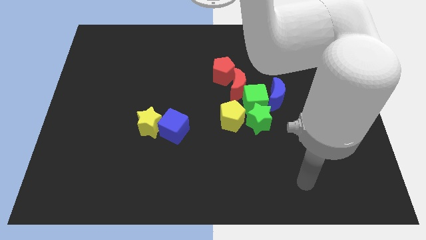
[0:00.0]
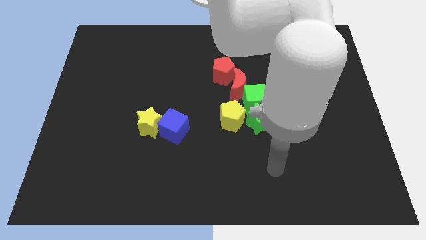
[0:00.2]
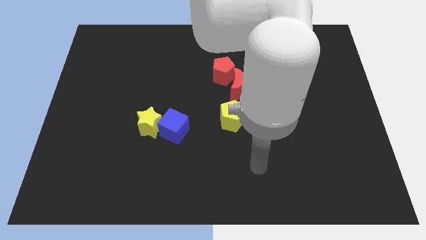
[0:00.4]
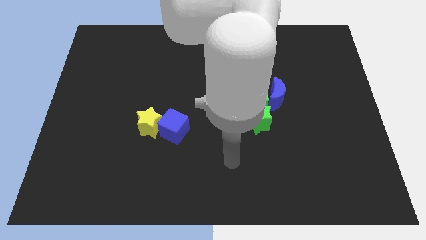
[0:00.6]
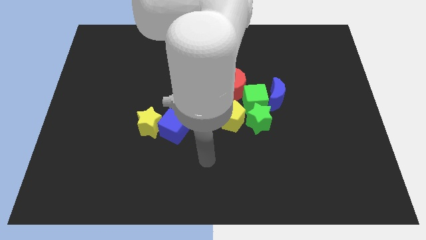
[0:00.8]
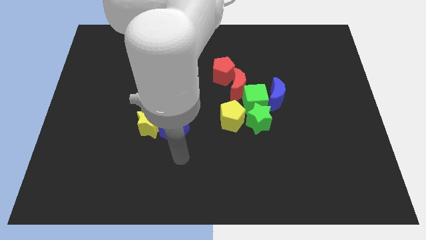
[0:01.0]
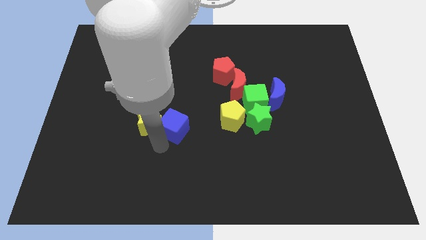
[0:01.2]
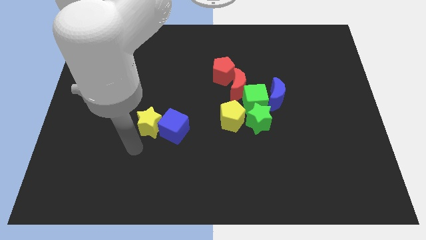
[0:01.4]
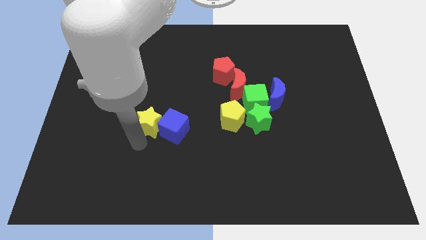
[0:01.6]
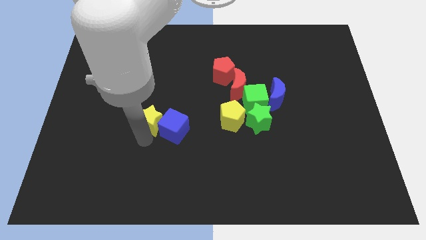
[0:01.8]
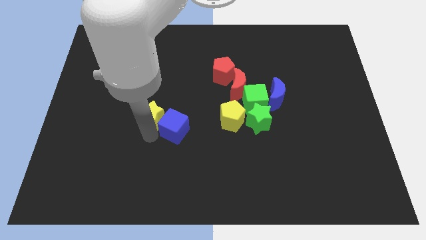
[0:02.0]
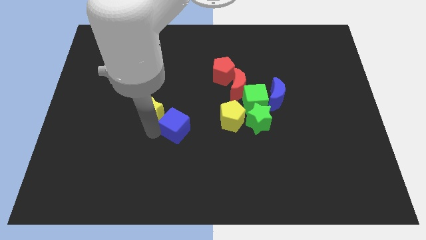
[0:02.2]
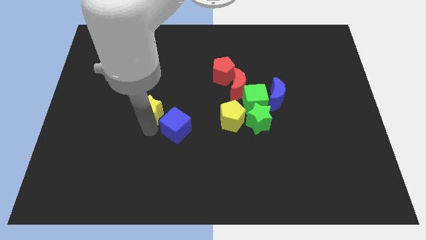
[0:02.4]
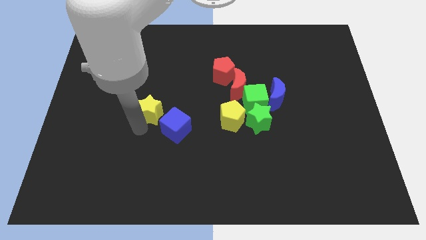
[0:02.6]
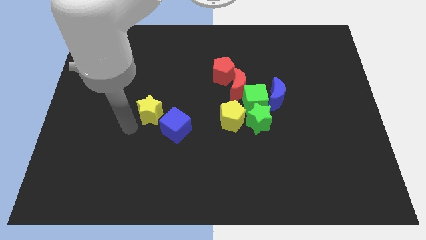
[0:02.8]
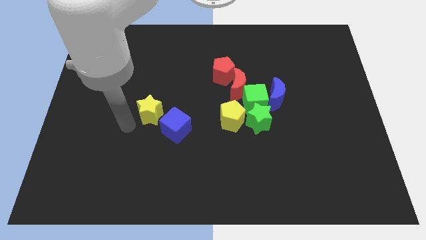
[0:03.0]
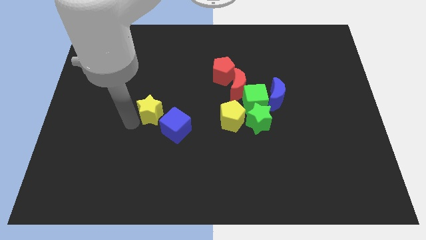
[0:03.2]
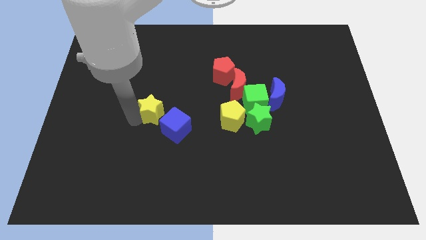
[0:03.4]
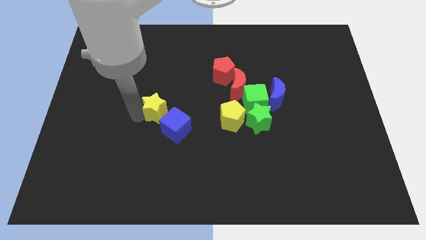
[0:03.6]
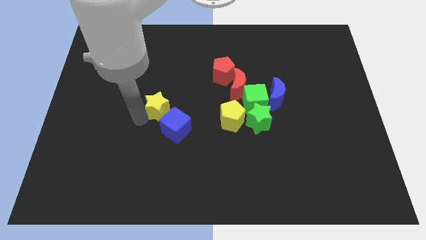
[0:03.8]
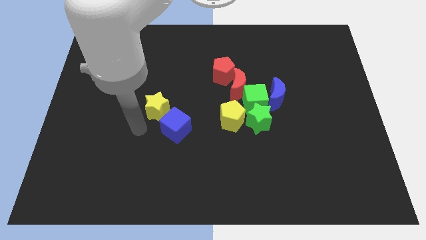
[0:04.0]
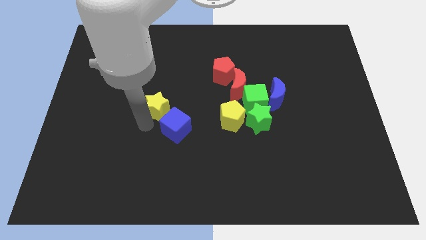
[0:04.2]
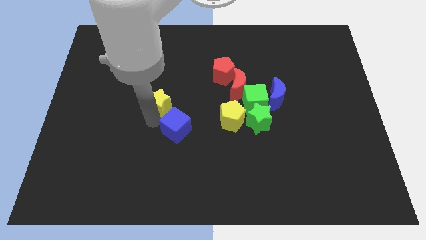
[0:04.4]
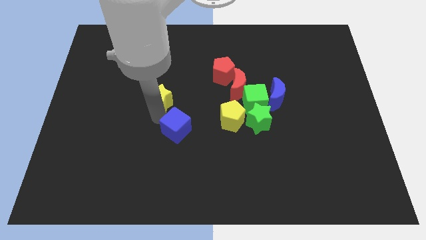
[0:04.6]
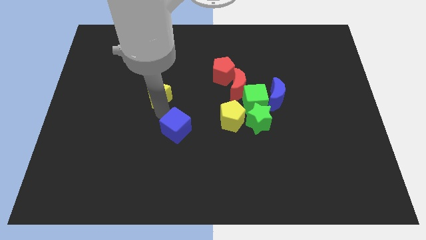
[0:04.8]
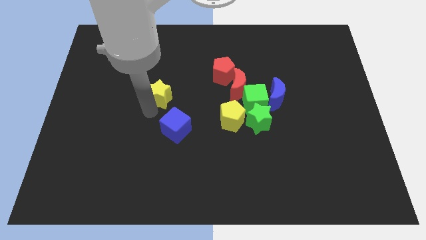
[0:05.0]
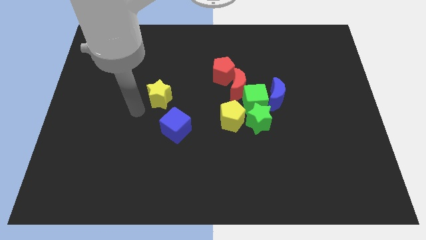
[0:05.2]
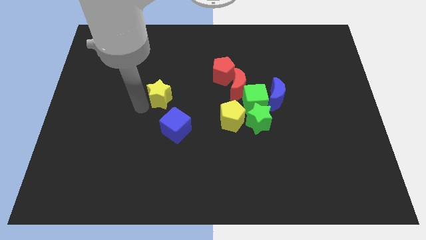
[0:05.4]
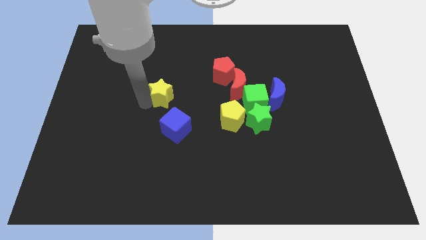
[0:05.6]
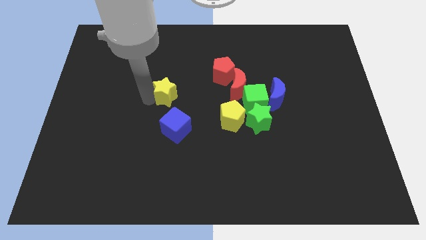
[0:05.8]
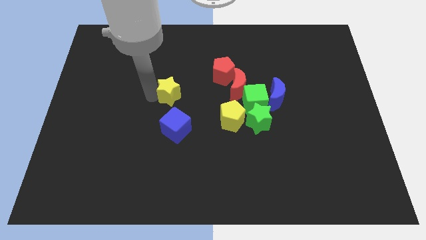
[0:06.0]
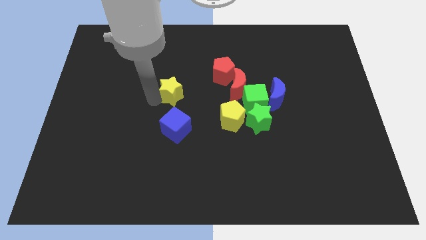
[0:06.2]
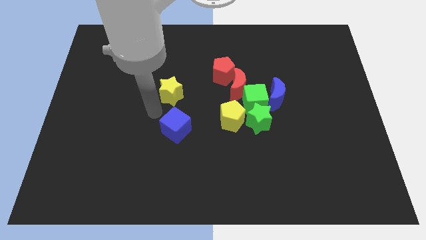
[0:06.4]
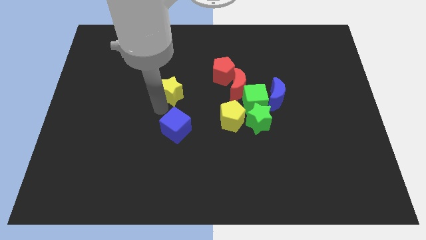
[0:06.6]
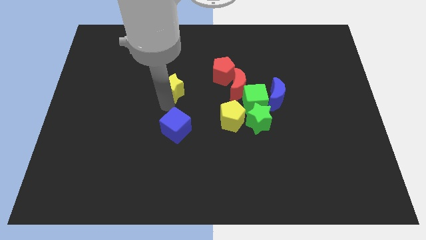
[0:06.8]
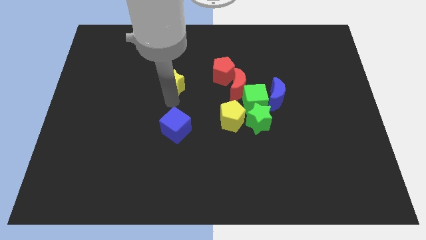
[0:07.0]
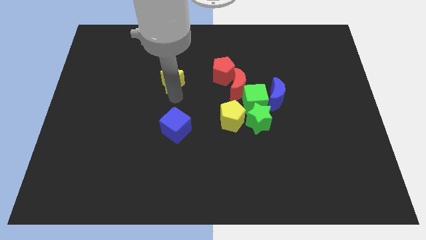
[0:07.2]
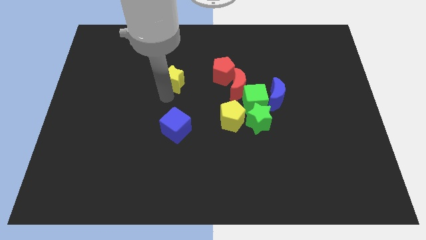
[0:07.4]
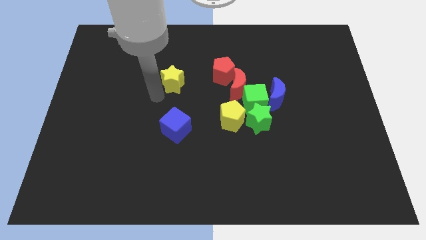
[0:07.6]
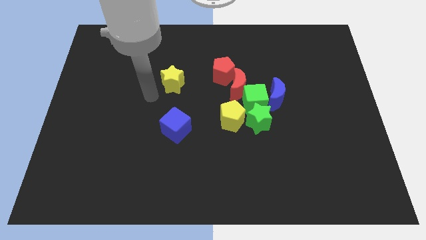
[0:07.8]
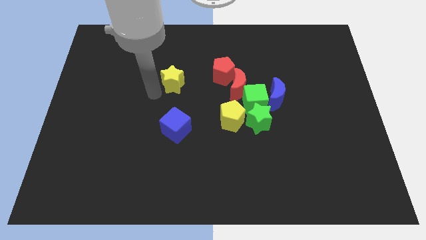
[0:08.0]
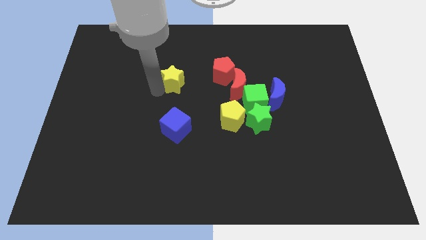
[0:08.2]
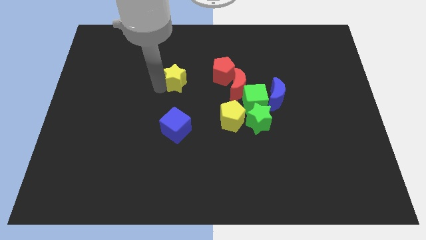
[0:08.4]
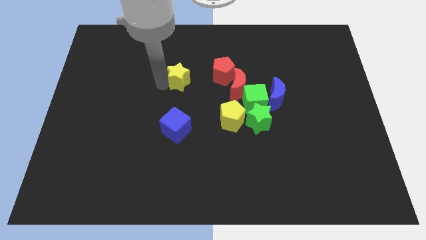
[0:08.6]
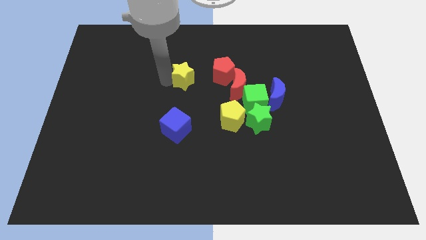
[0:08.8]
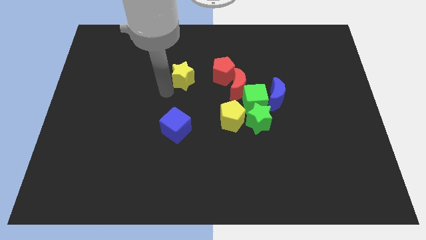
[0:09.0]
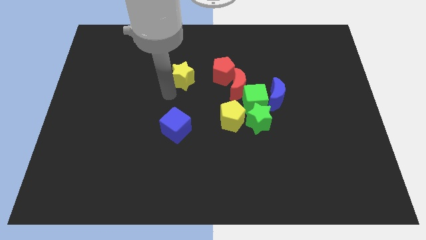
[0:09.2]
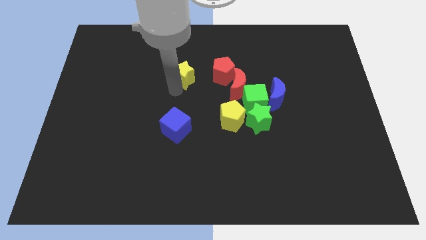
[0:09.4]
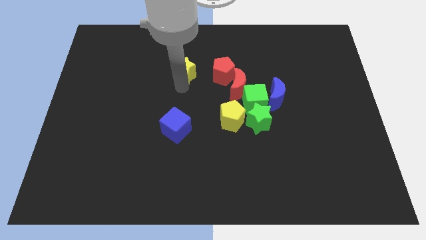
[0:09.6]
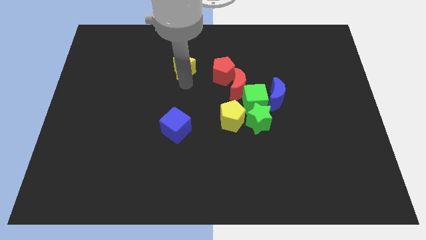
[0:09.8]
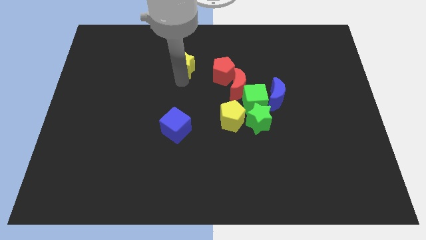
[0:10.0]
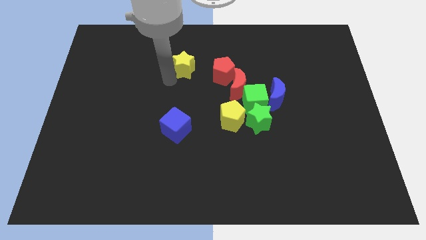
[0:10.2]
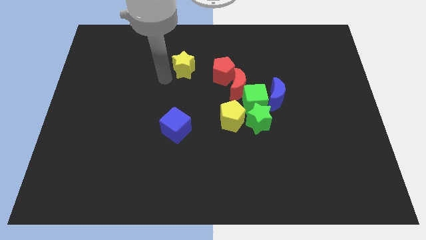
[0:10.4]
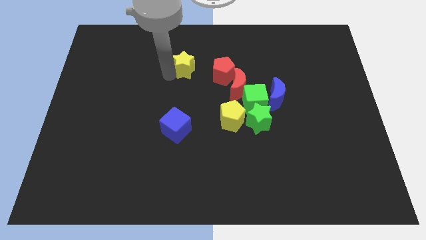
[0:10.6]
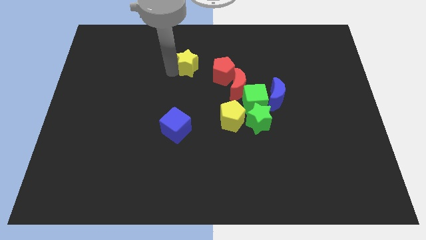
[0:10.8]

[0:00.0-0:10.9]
push the yellow star diagonally up and to the left of the red pentagon

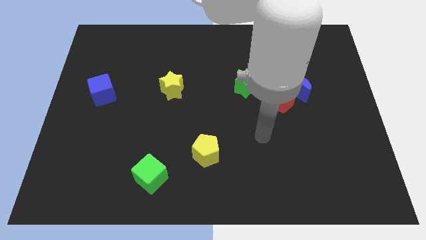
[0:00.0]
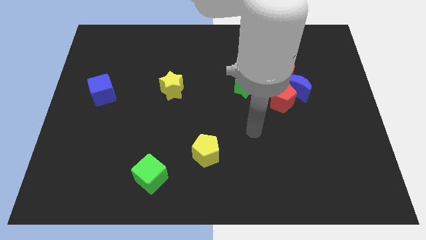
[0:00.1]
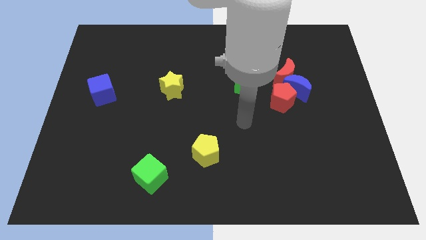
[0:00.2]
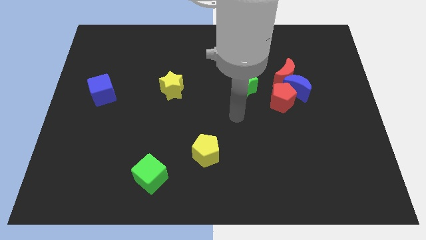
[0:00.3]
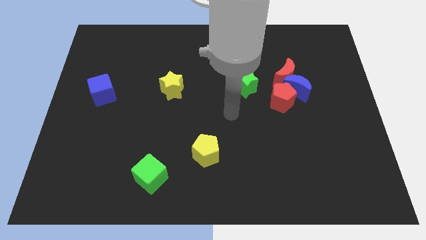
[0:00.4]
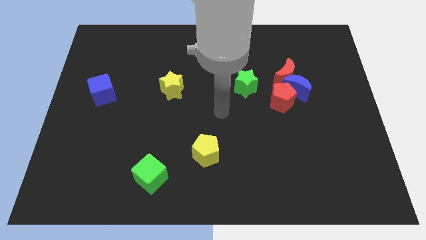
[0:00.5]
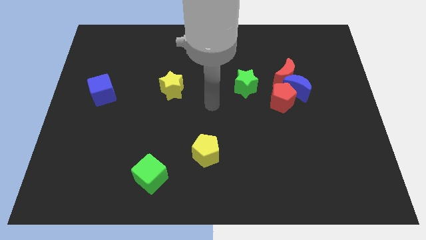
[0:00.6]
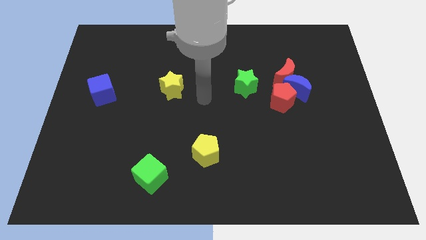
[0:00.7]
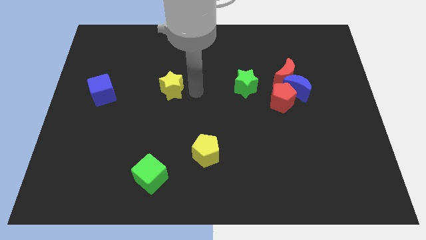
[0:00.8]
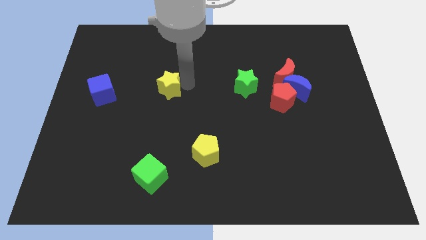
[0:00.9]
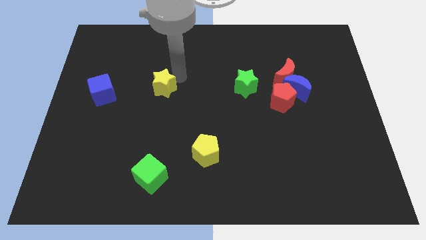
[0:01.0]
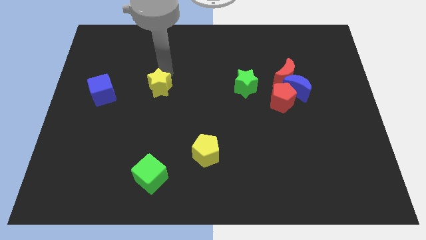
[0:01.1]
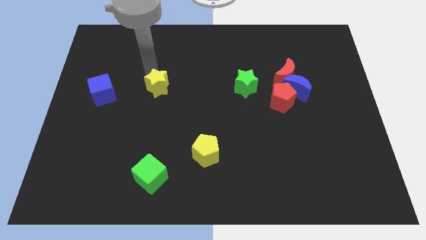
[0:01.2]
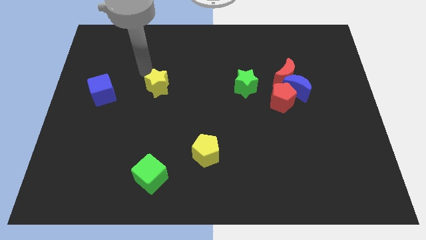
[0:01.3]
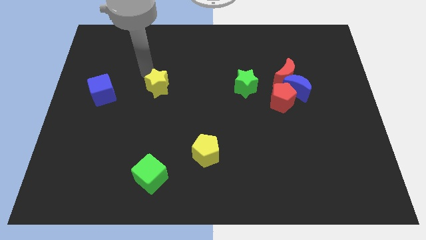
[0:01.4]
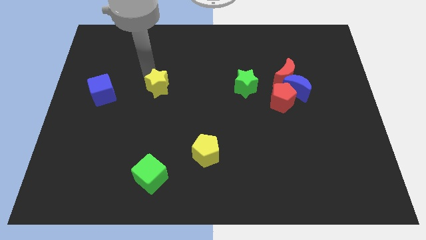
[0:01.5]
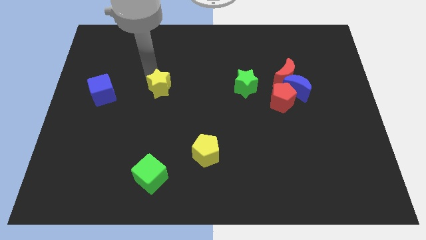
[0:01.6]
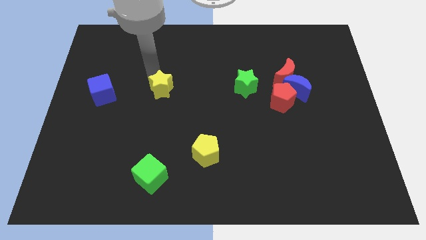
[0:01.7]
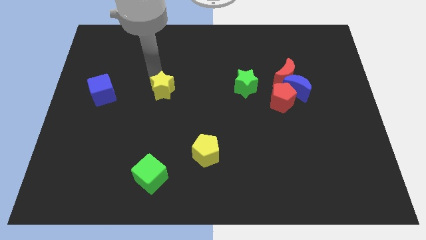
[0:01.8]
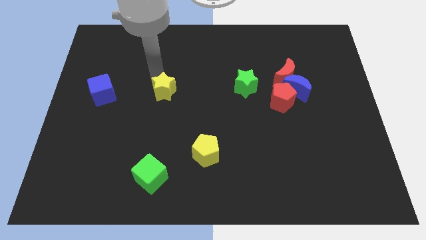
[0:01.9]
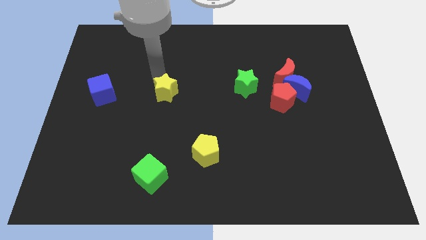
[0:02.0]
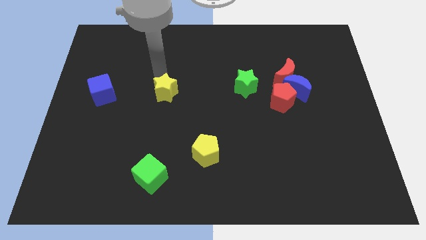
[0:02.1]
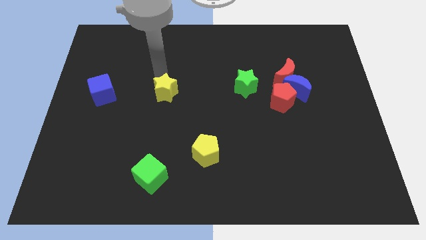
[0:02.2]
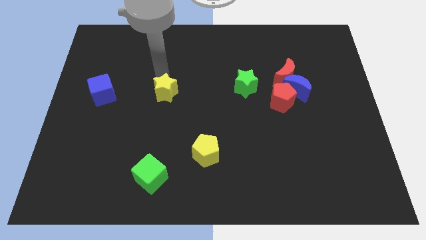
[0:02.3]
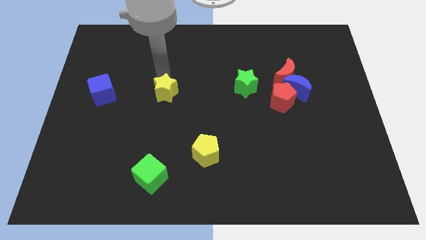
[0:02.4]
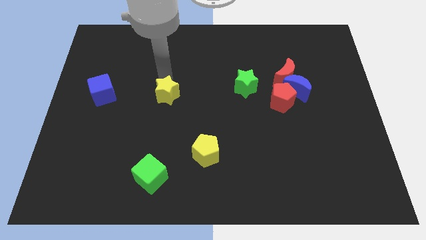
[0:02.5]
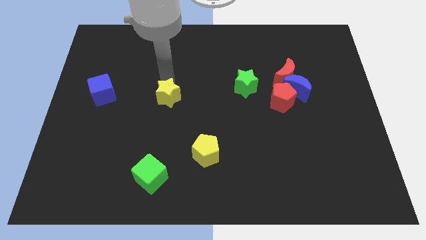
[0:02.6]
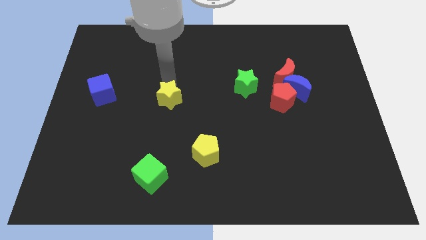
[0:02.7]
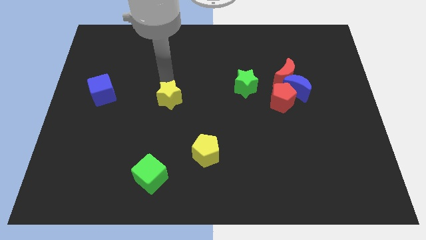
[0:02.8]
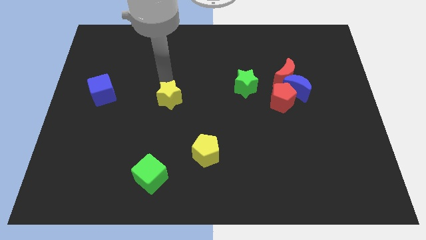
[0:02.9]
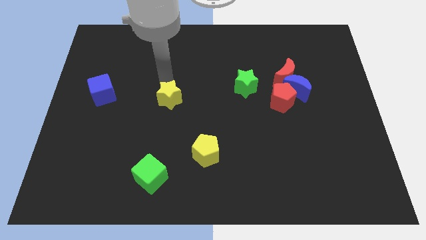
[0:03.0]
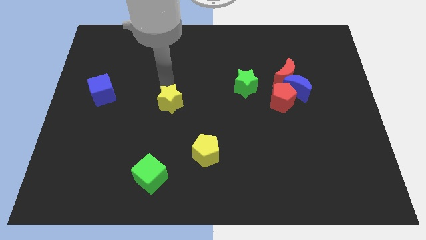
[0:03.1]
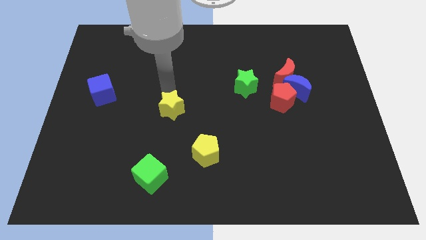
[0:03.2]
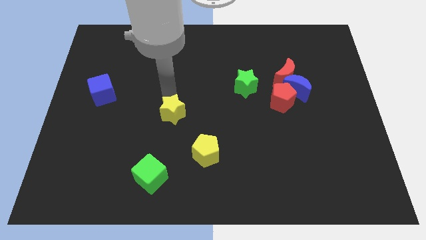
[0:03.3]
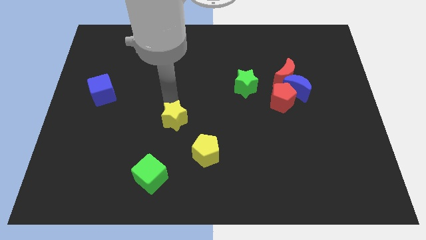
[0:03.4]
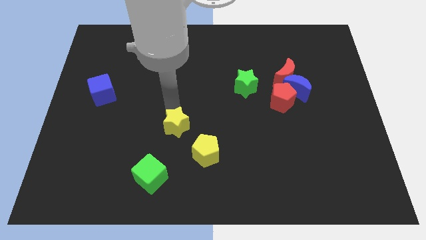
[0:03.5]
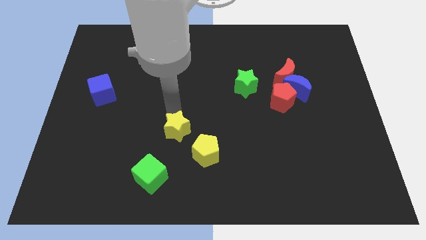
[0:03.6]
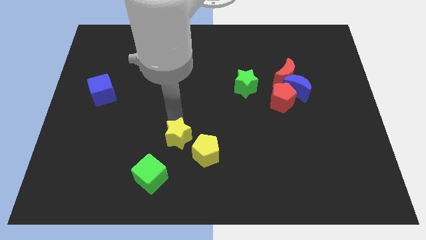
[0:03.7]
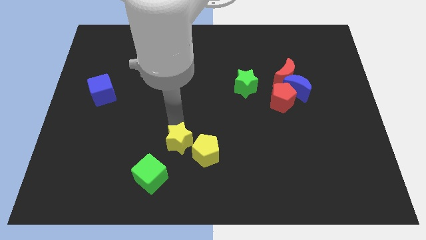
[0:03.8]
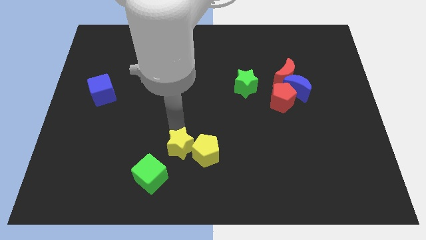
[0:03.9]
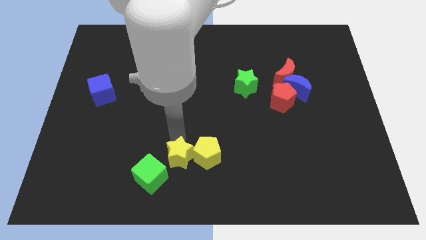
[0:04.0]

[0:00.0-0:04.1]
put the yellow star just right of the green cube
